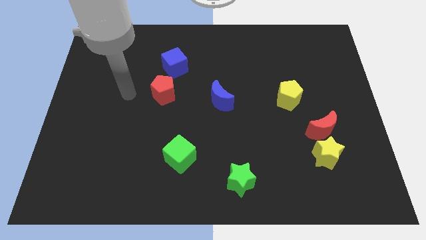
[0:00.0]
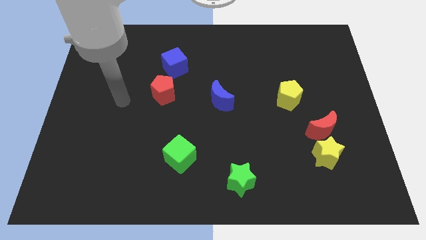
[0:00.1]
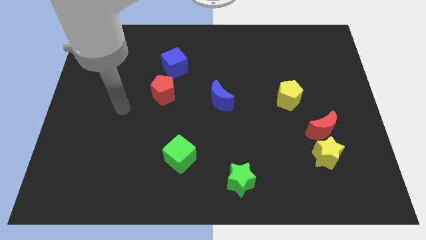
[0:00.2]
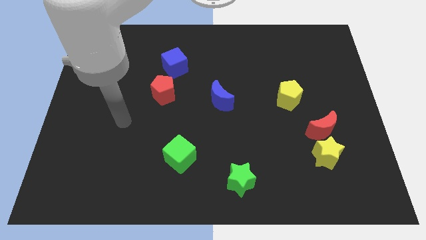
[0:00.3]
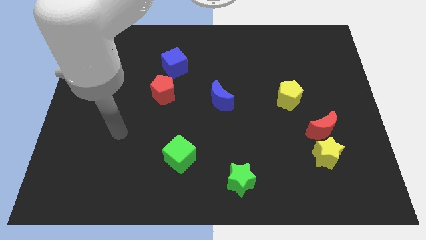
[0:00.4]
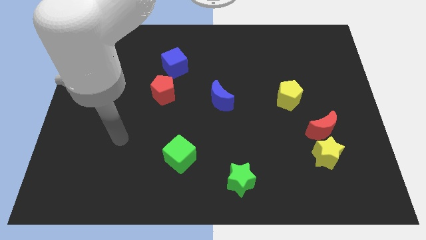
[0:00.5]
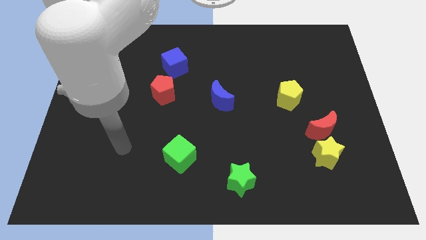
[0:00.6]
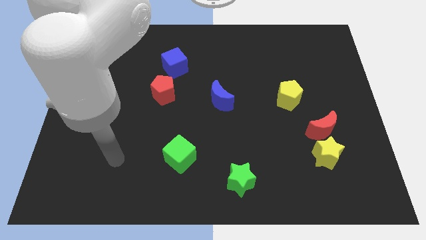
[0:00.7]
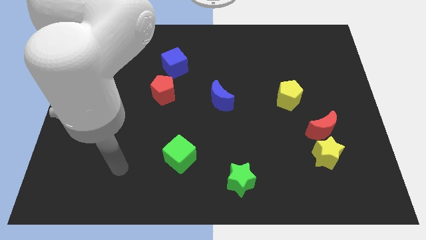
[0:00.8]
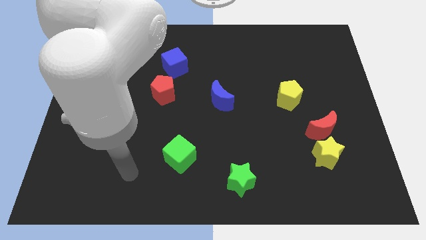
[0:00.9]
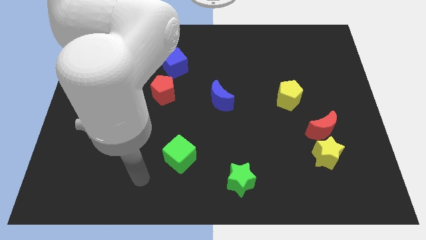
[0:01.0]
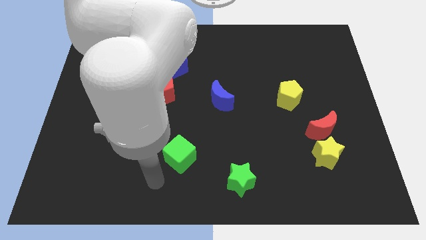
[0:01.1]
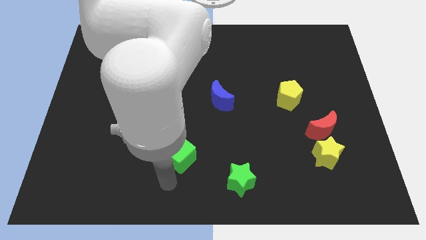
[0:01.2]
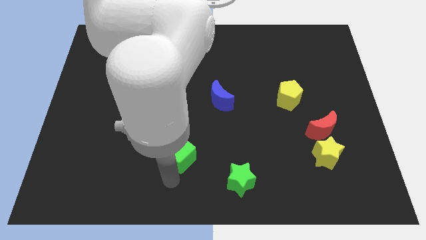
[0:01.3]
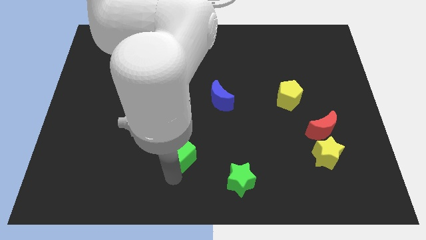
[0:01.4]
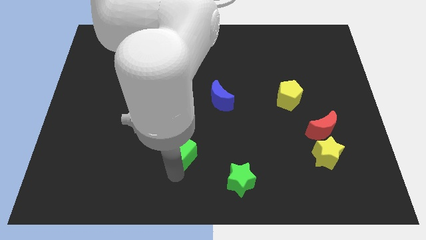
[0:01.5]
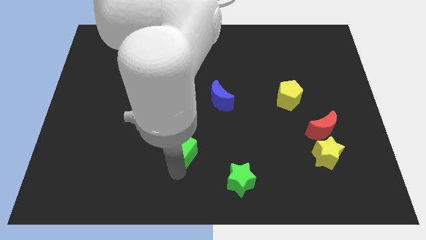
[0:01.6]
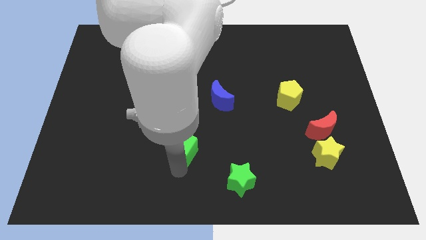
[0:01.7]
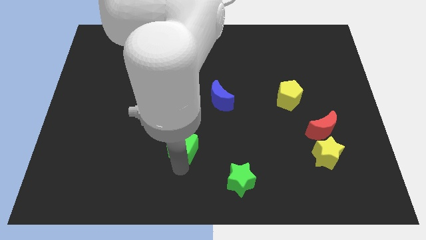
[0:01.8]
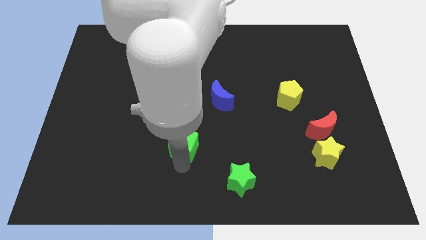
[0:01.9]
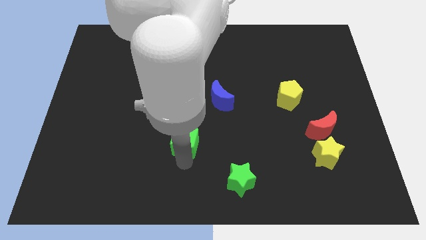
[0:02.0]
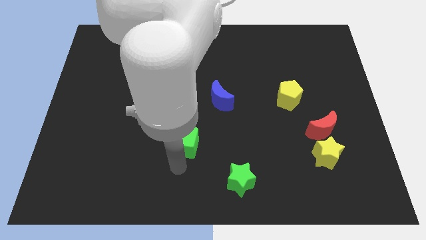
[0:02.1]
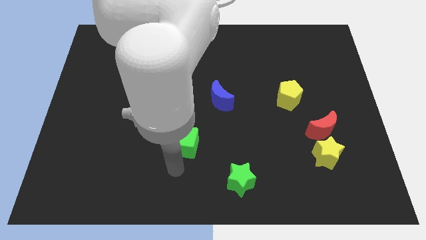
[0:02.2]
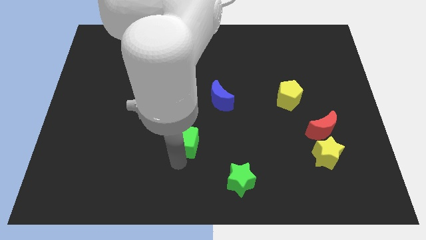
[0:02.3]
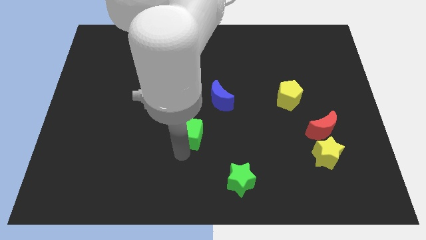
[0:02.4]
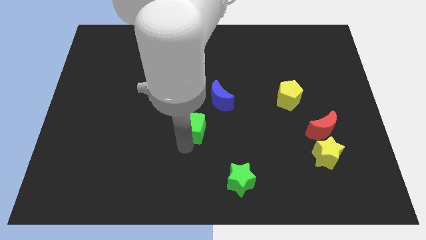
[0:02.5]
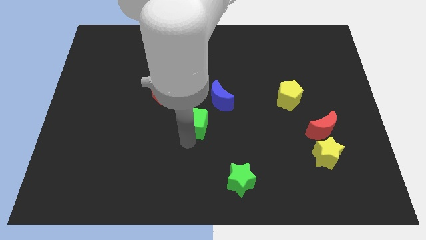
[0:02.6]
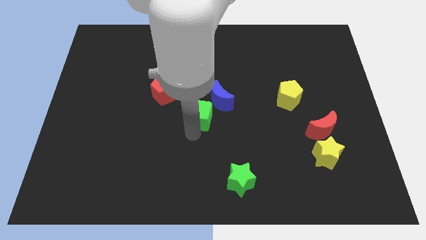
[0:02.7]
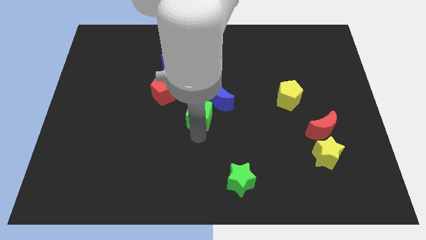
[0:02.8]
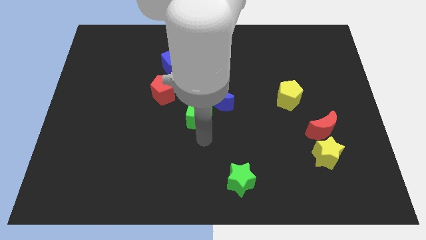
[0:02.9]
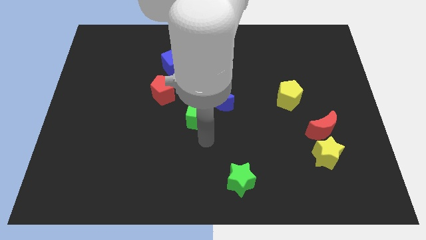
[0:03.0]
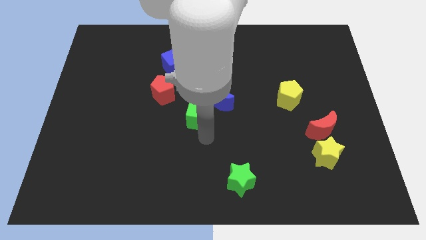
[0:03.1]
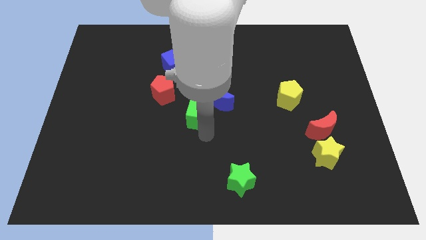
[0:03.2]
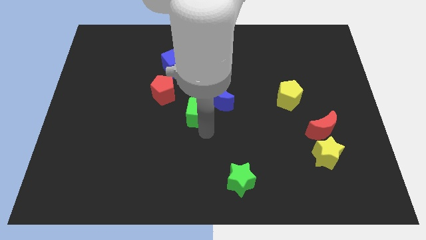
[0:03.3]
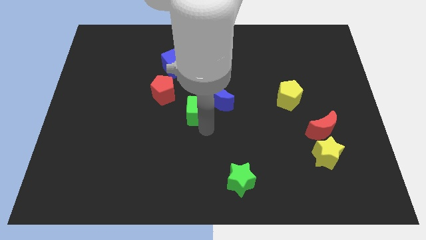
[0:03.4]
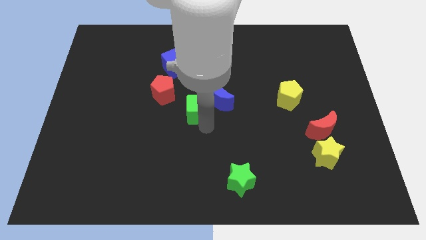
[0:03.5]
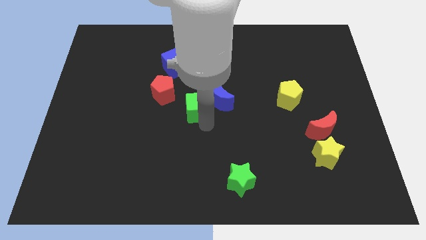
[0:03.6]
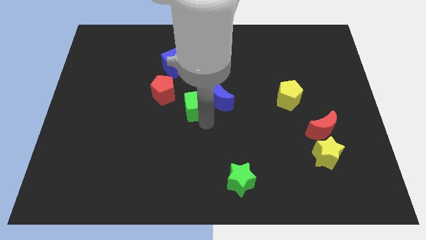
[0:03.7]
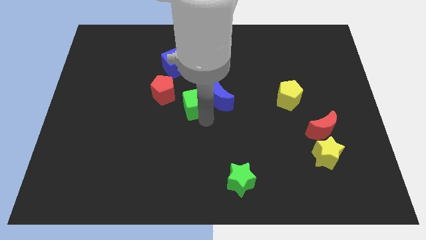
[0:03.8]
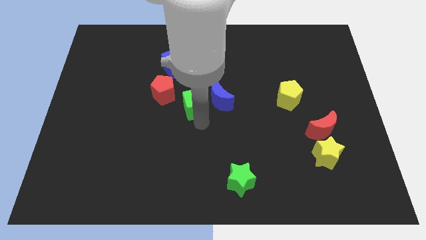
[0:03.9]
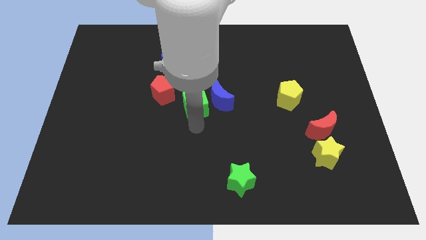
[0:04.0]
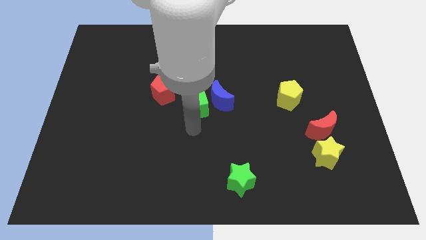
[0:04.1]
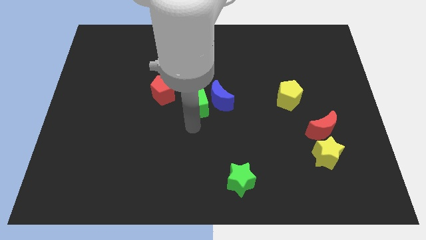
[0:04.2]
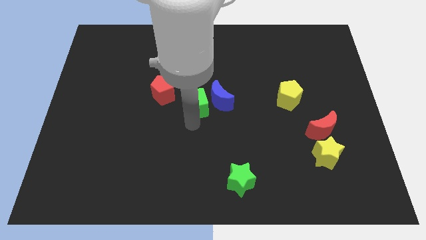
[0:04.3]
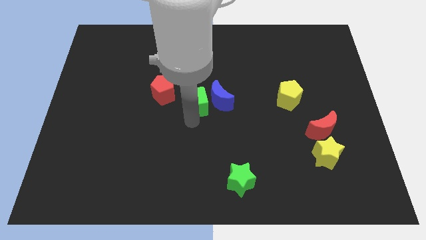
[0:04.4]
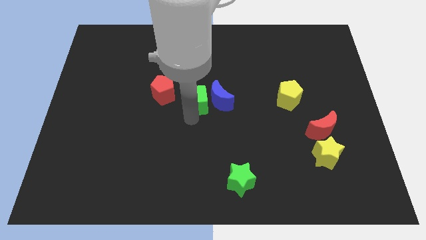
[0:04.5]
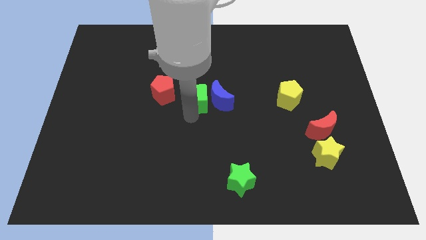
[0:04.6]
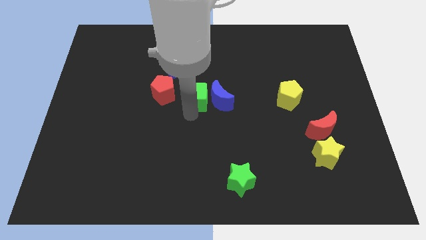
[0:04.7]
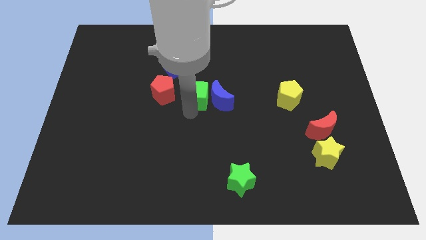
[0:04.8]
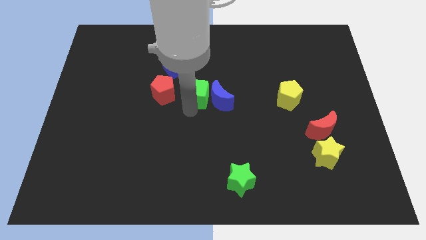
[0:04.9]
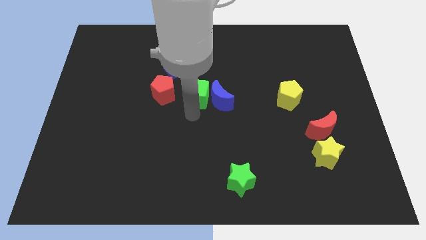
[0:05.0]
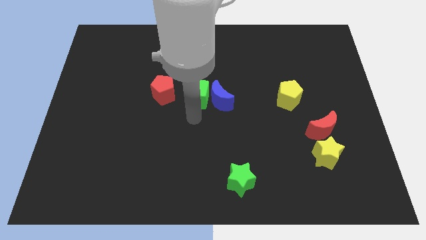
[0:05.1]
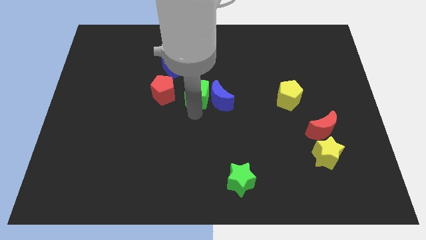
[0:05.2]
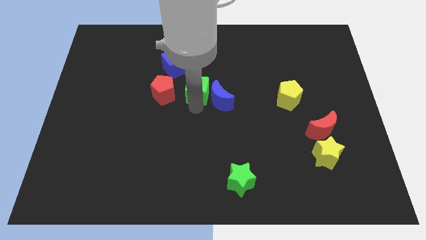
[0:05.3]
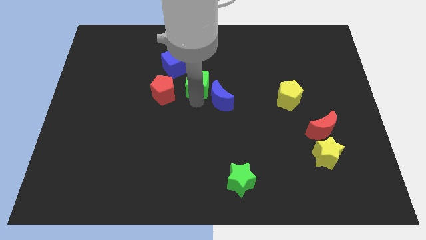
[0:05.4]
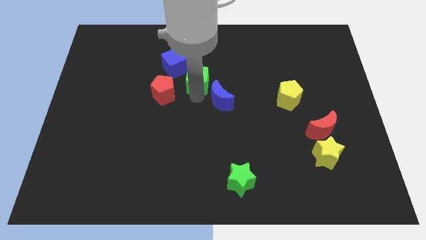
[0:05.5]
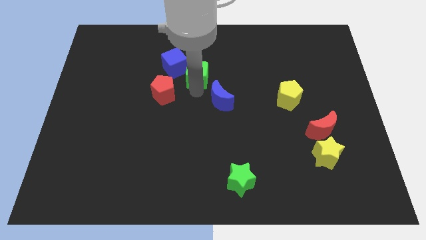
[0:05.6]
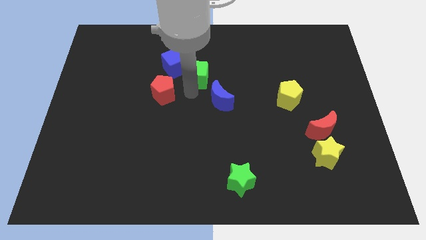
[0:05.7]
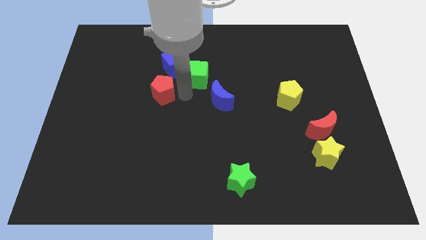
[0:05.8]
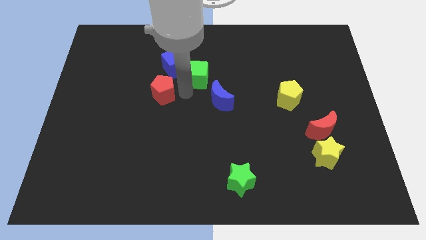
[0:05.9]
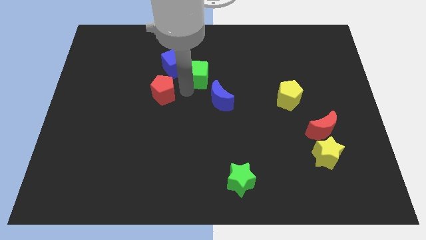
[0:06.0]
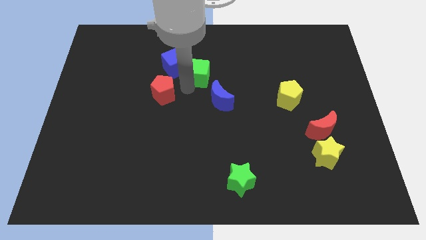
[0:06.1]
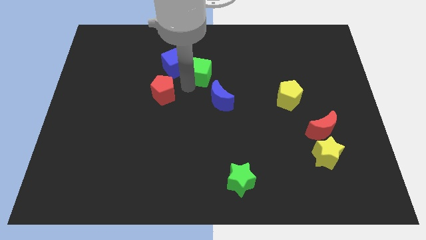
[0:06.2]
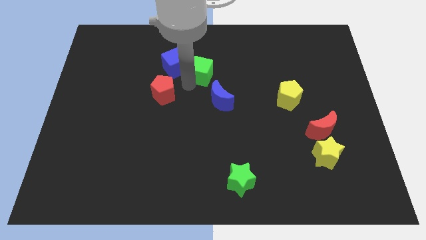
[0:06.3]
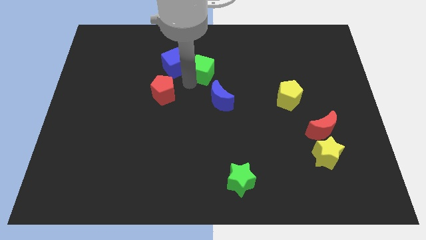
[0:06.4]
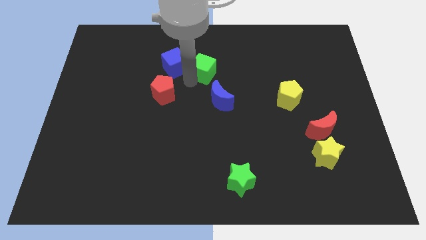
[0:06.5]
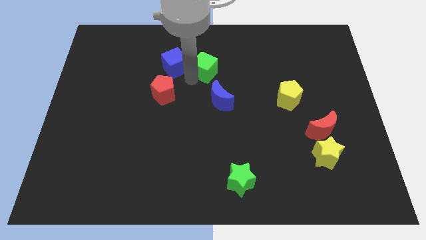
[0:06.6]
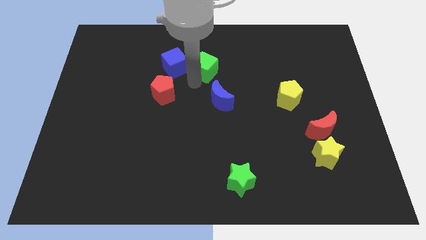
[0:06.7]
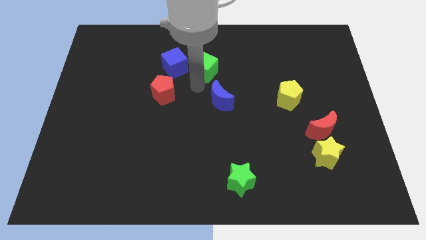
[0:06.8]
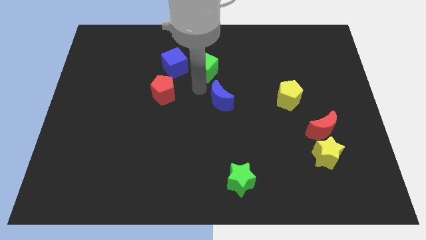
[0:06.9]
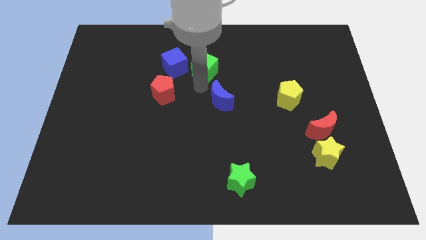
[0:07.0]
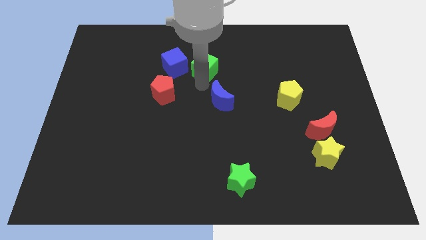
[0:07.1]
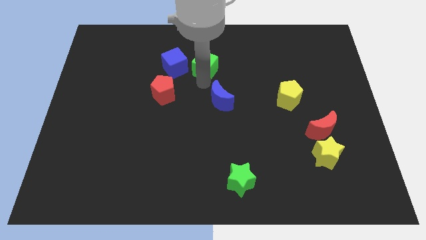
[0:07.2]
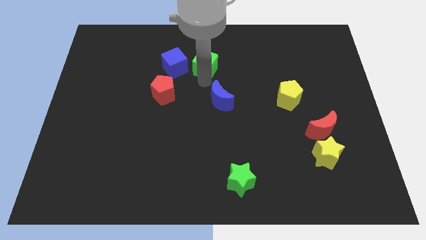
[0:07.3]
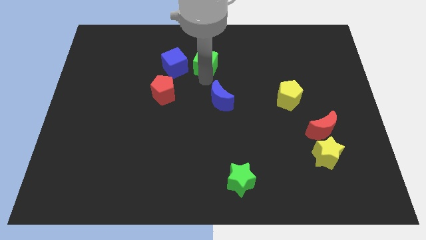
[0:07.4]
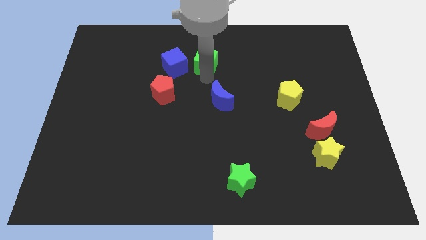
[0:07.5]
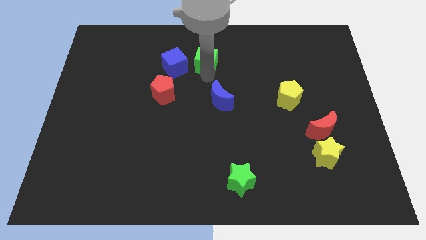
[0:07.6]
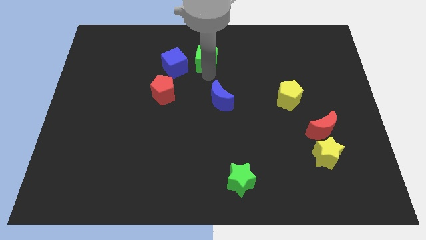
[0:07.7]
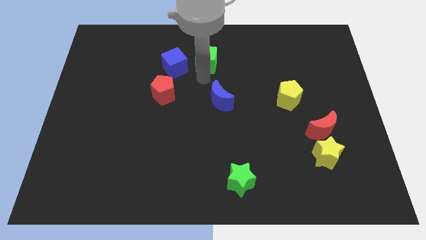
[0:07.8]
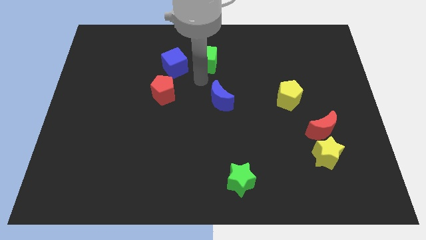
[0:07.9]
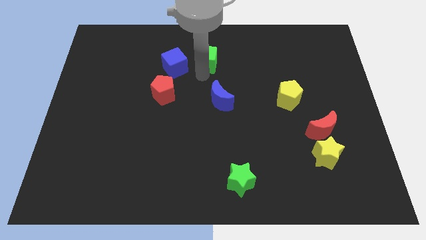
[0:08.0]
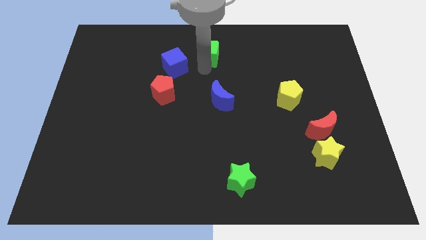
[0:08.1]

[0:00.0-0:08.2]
slide the green cube to the towards your base
